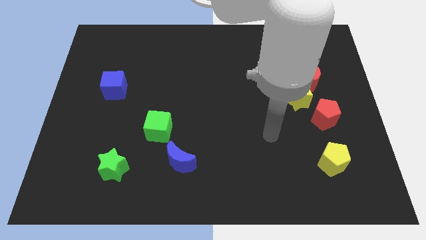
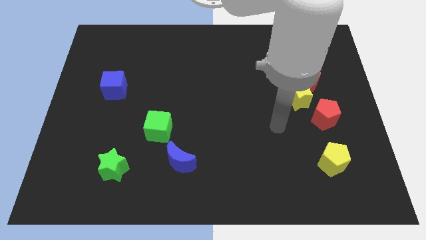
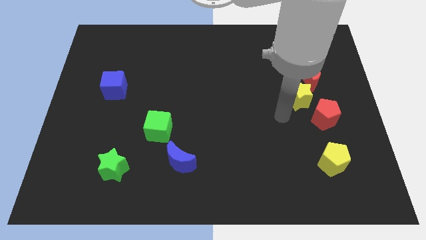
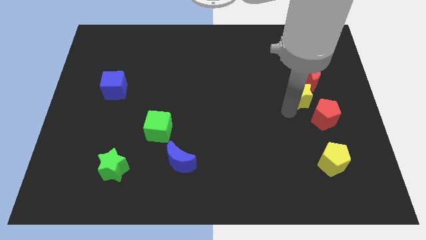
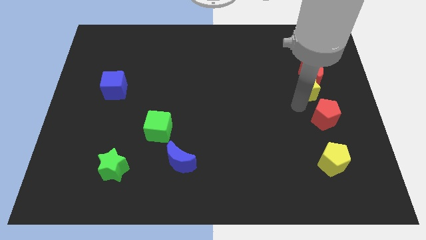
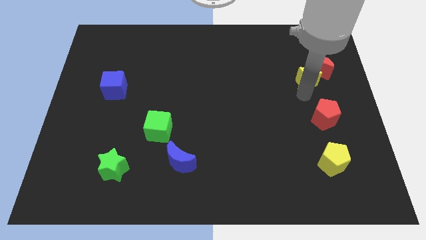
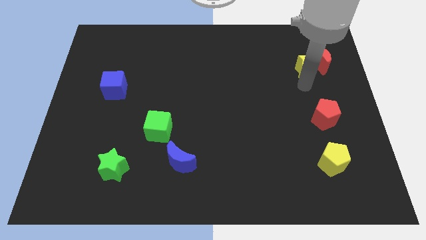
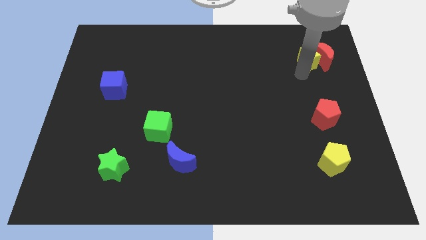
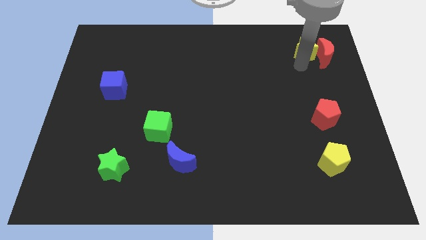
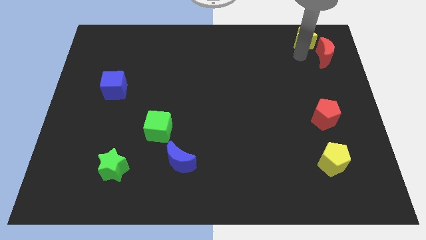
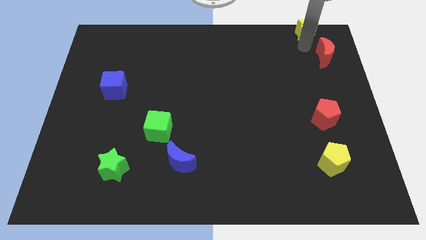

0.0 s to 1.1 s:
pull the red moon apart from the yellow star

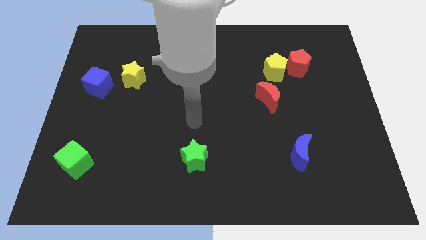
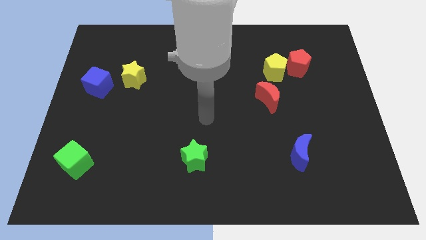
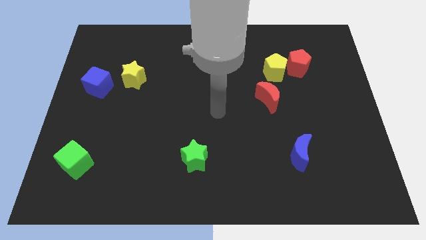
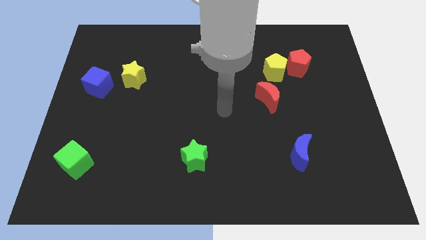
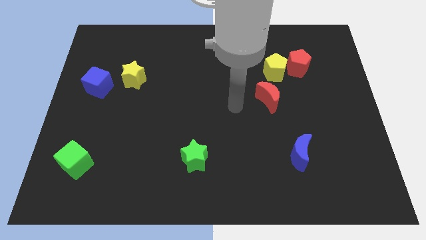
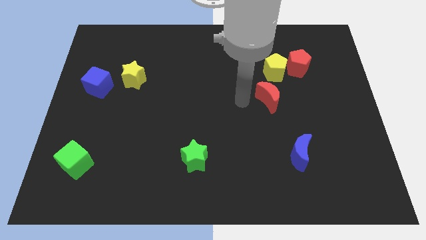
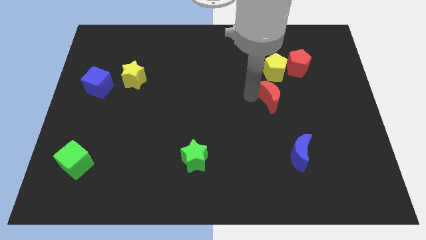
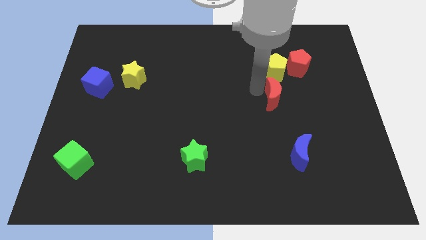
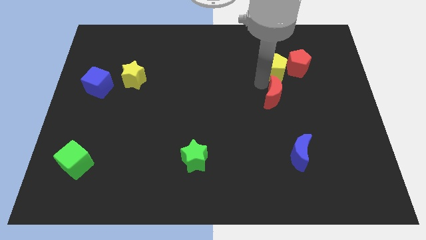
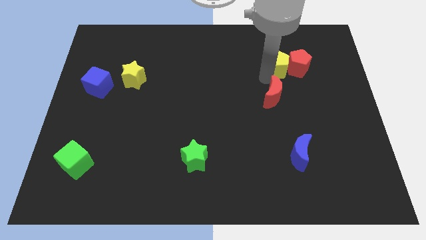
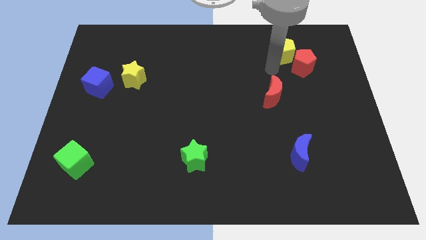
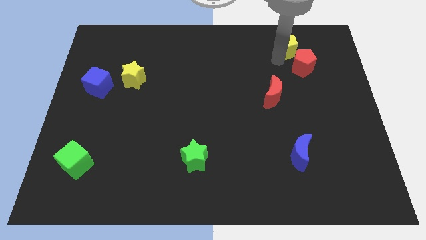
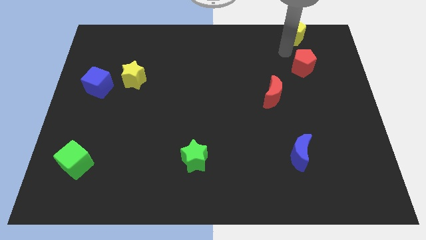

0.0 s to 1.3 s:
move the red pentagon away from the yellow pentagon

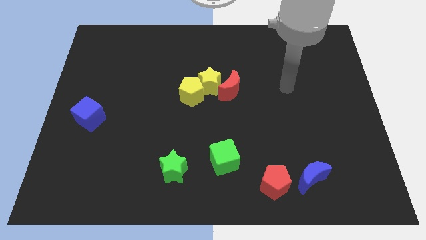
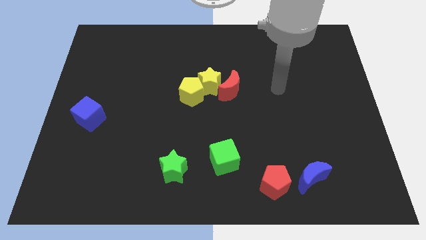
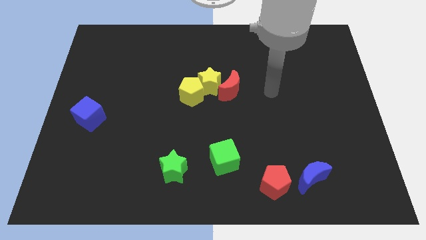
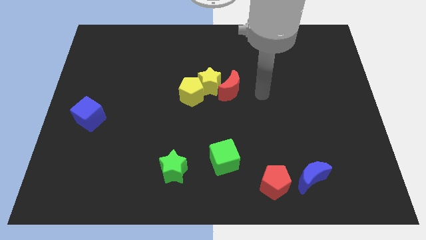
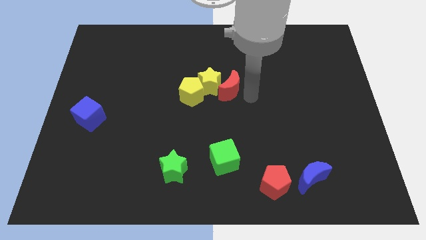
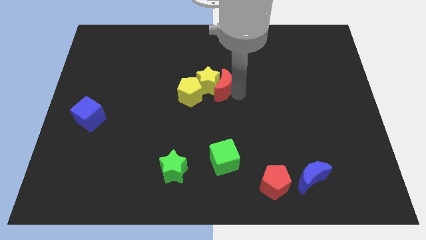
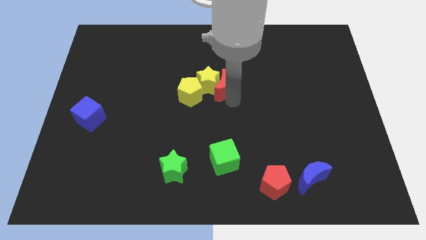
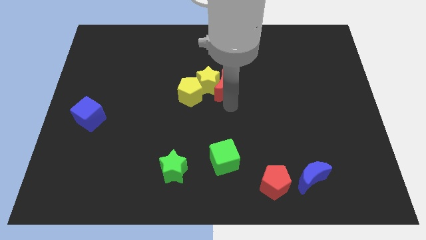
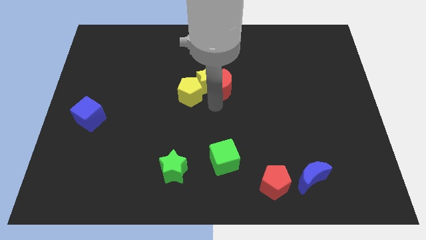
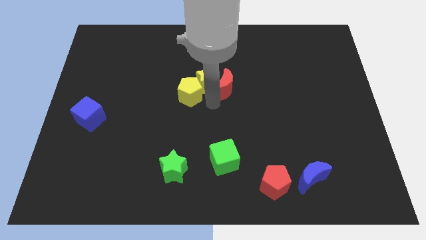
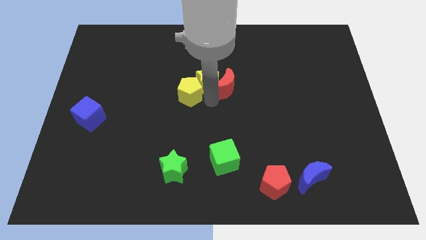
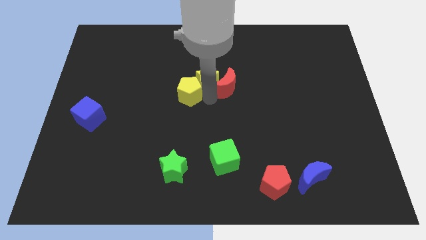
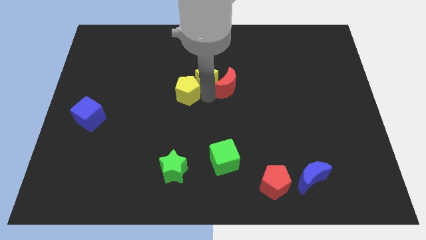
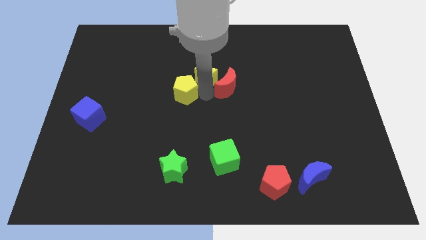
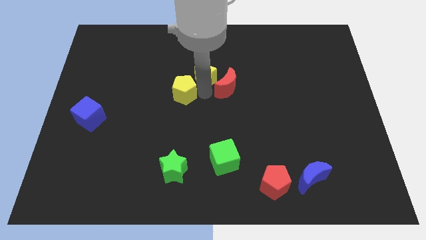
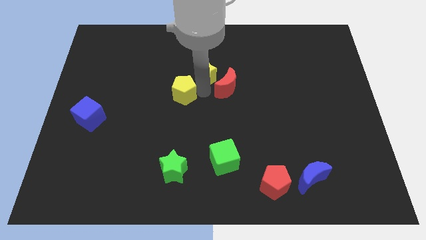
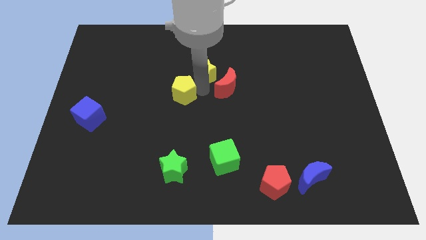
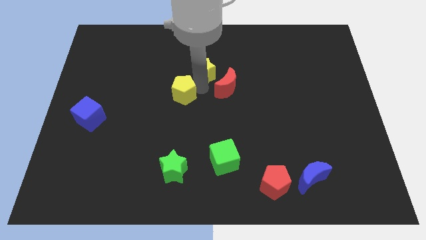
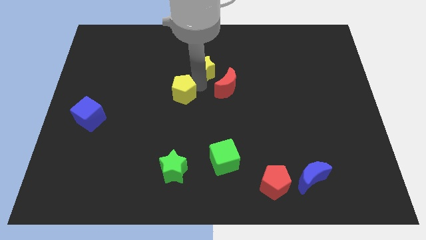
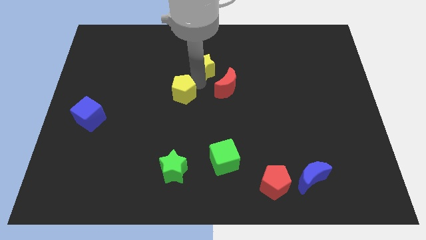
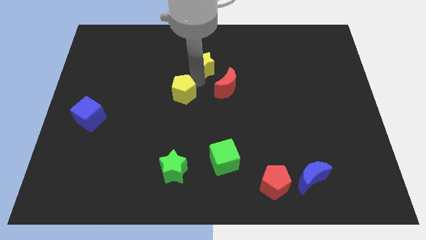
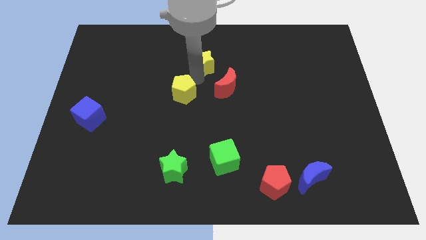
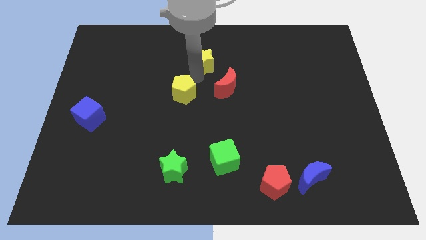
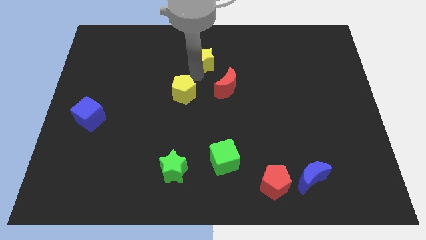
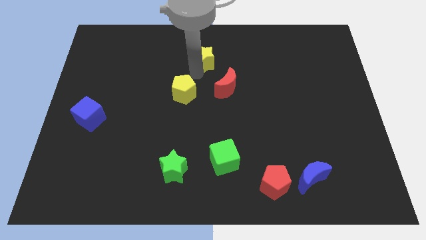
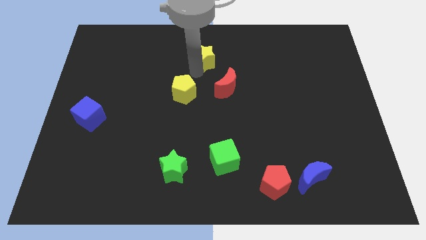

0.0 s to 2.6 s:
move the yellow star away from the yellow pentagon and red moon

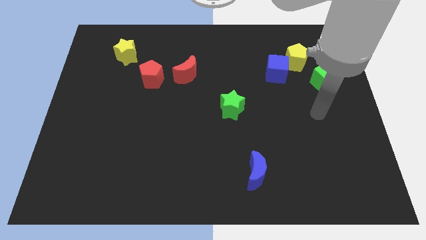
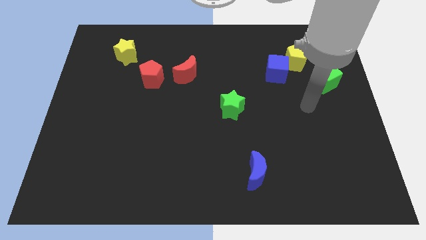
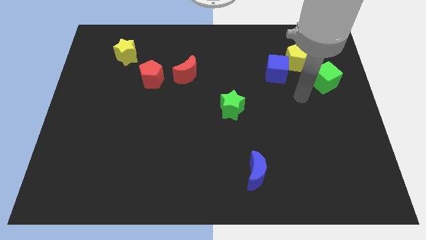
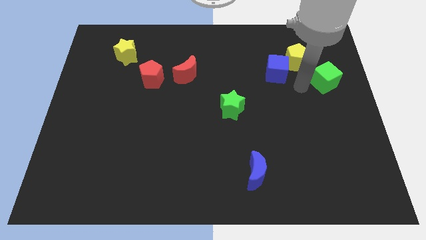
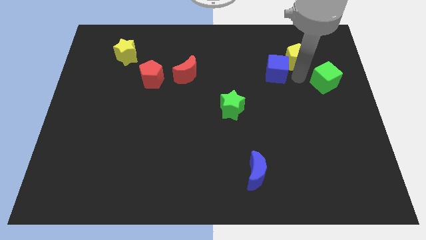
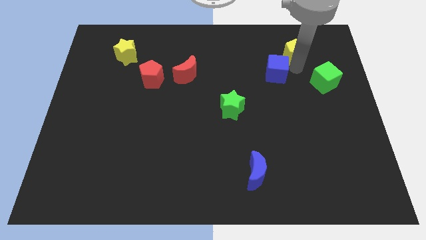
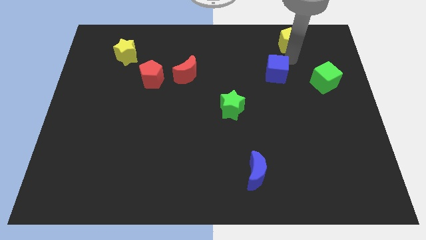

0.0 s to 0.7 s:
pull the blue cube apart from the yellow pentagon

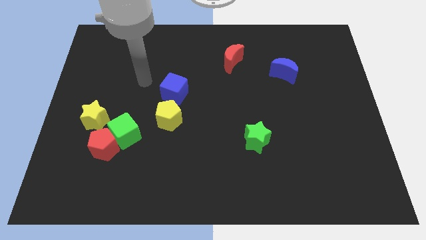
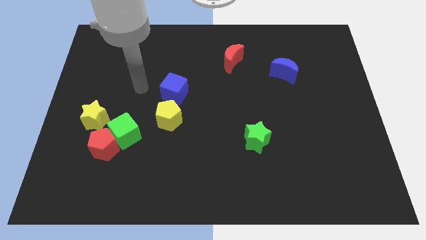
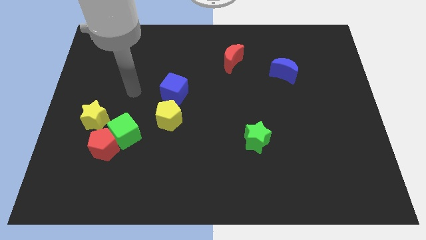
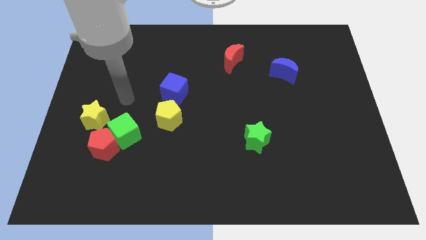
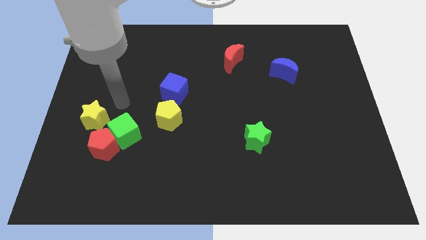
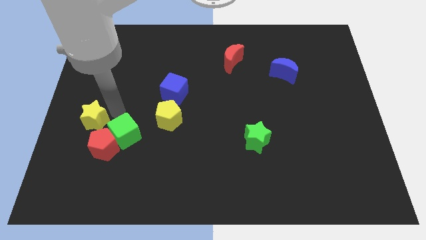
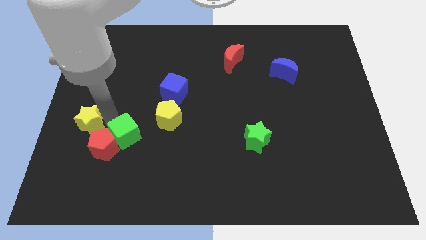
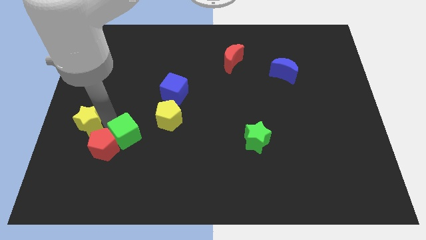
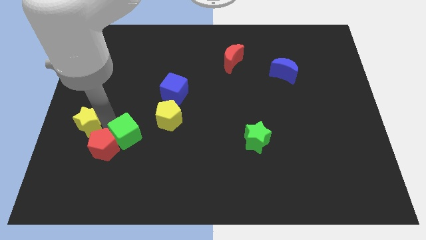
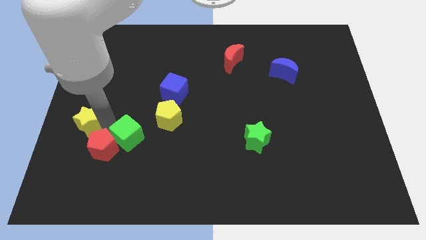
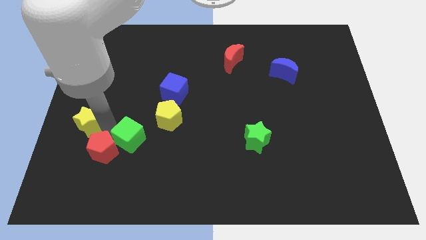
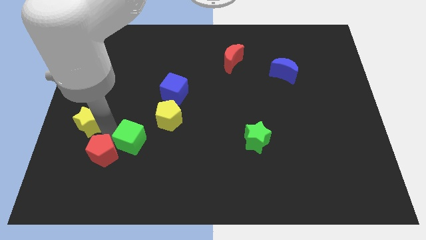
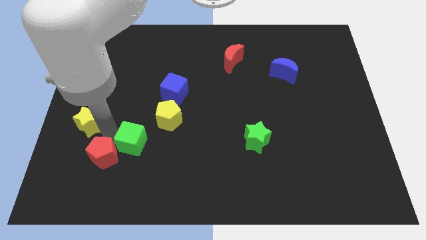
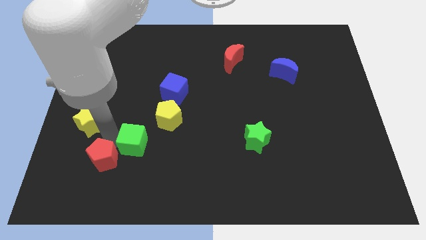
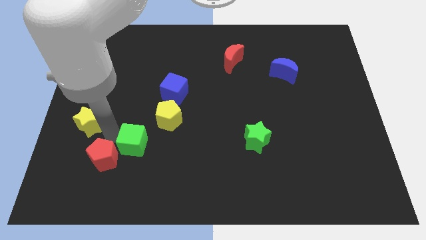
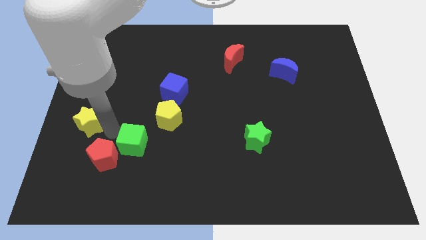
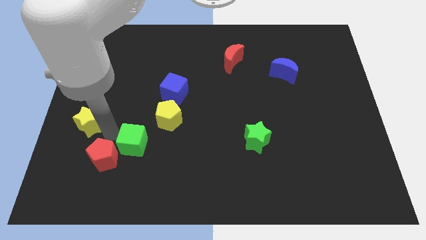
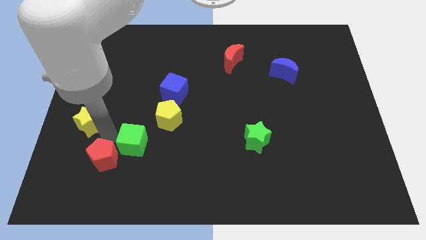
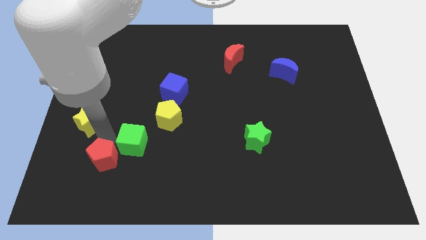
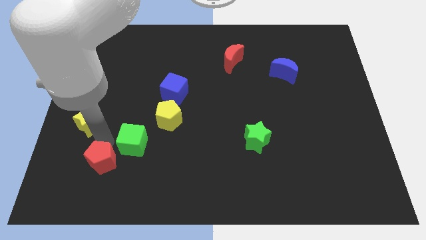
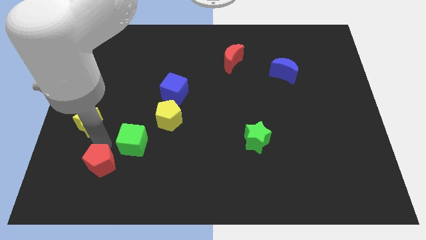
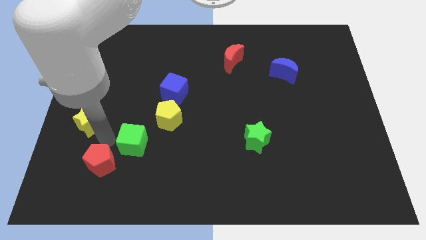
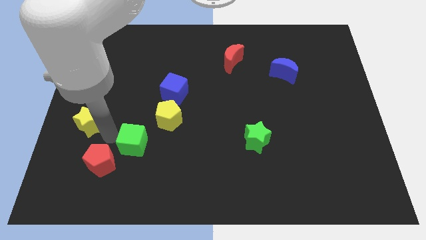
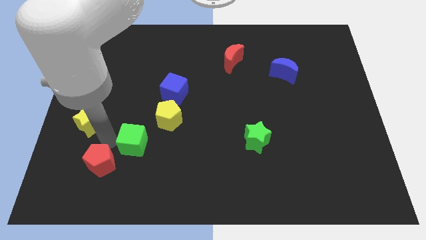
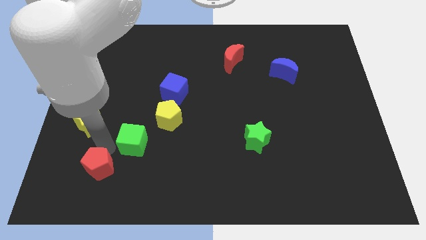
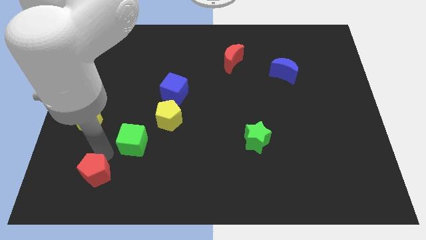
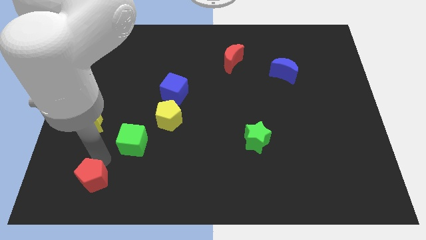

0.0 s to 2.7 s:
move the red pentagon away from the green cube and yellow star

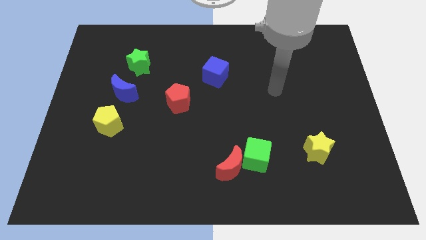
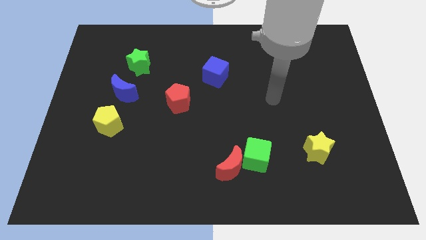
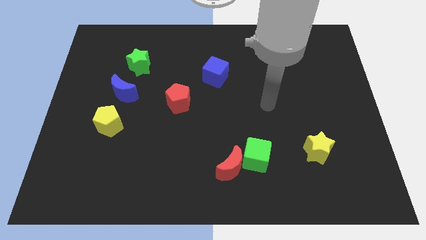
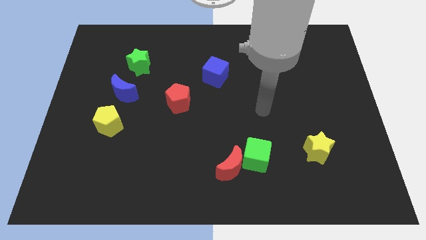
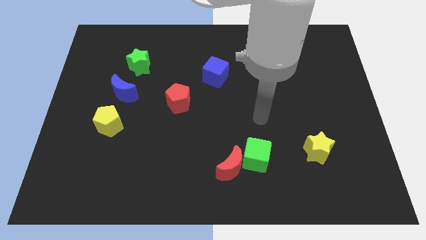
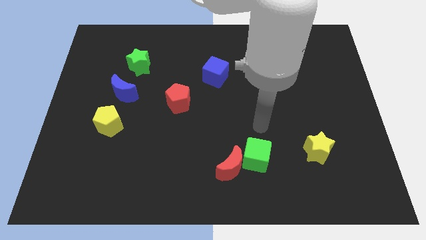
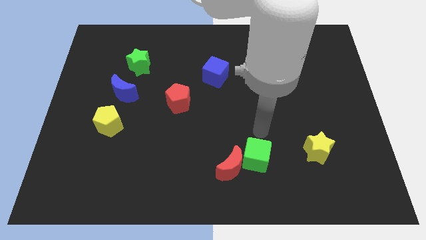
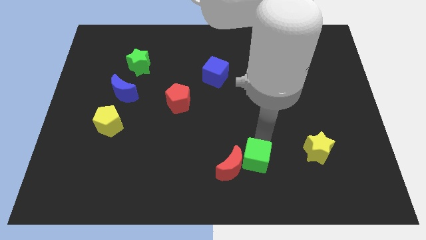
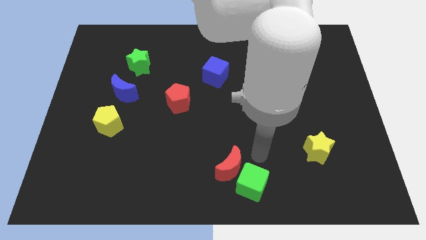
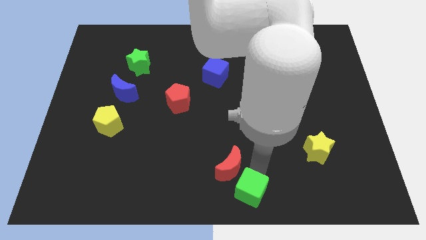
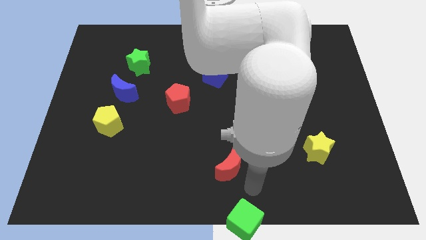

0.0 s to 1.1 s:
separate the red moon from the green cube

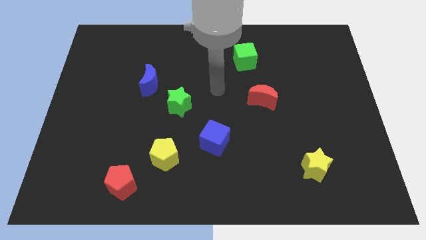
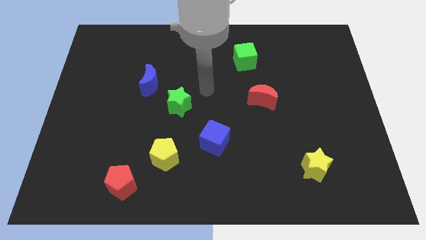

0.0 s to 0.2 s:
pull the blue moon apart from the green star
